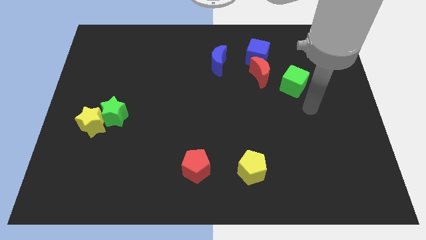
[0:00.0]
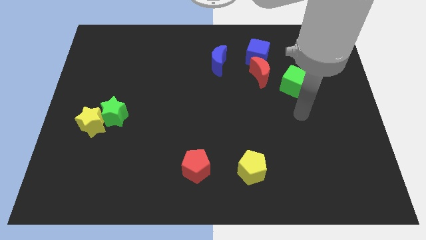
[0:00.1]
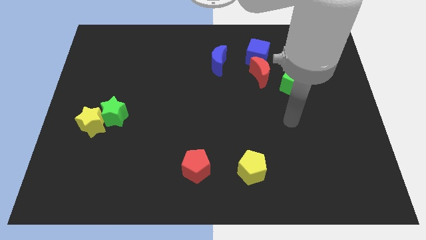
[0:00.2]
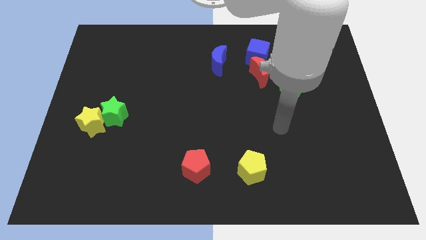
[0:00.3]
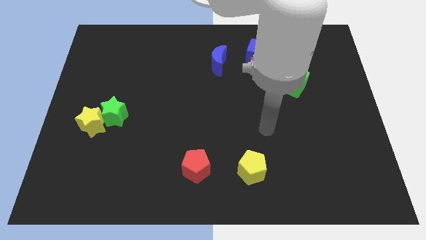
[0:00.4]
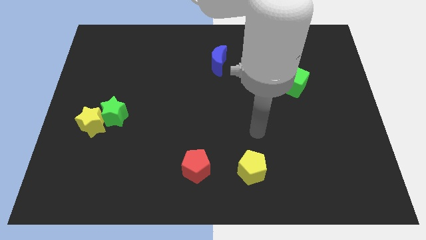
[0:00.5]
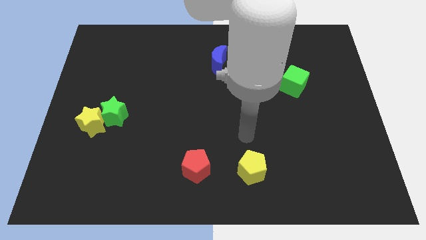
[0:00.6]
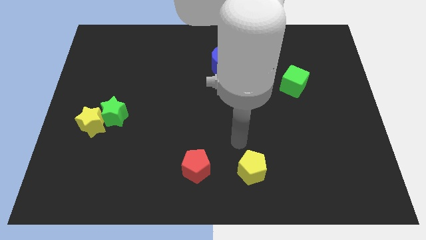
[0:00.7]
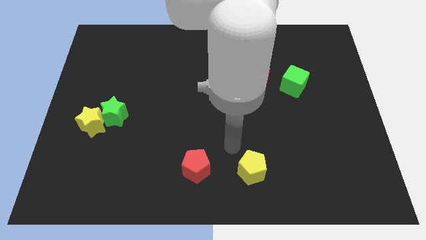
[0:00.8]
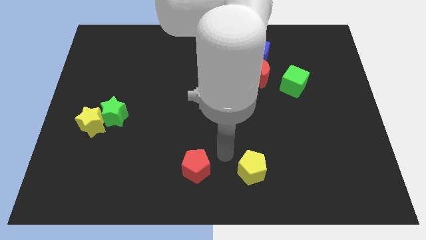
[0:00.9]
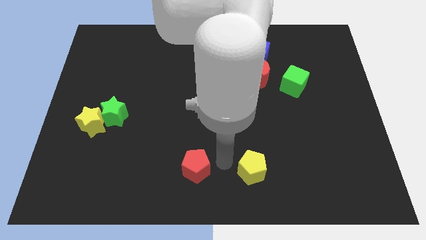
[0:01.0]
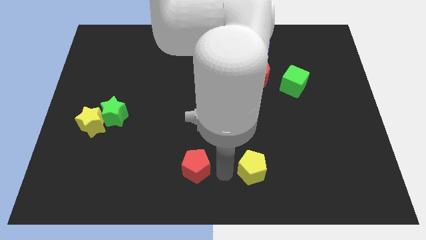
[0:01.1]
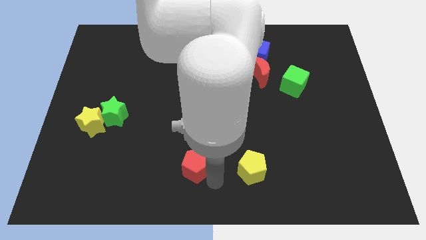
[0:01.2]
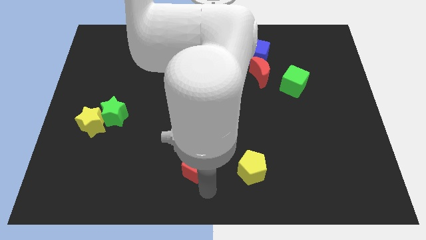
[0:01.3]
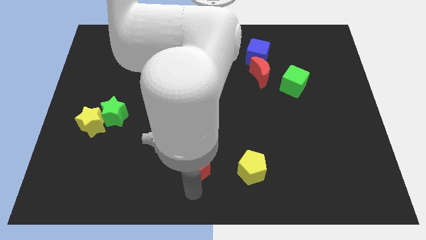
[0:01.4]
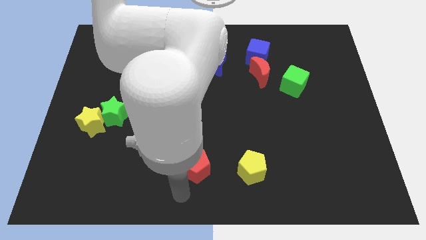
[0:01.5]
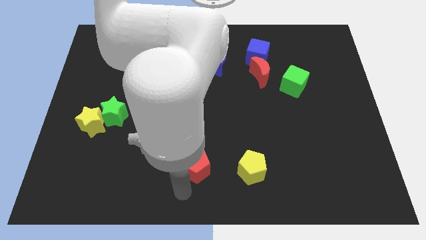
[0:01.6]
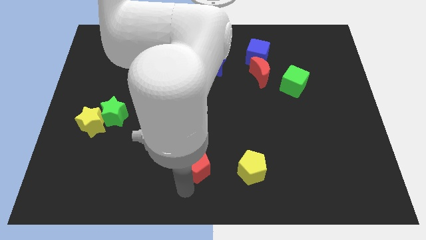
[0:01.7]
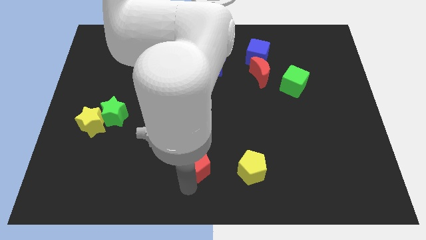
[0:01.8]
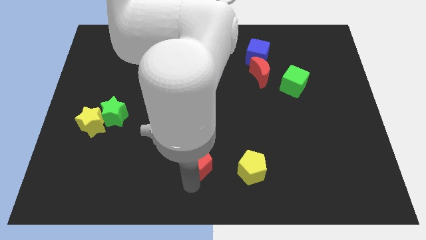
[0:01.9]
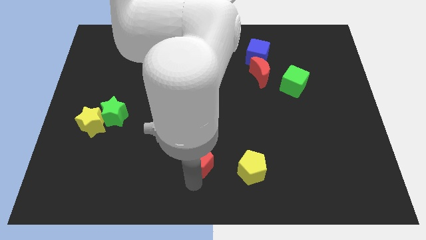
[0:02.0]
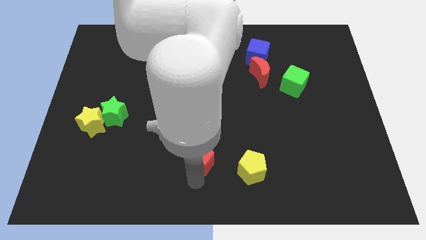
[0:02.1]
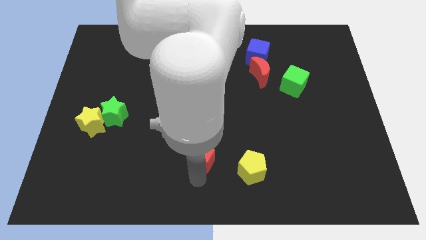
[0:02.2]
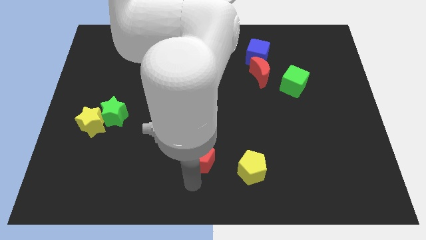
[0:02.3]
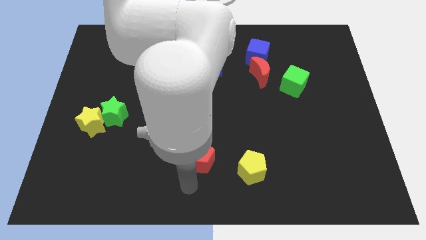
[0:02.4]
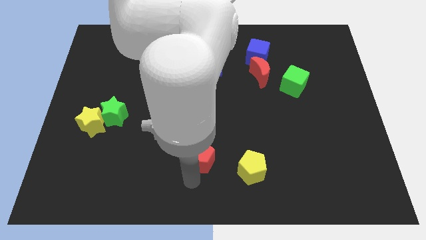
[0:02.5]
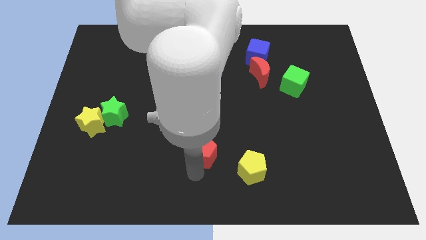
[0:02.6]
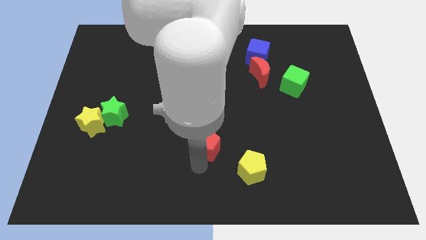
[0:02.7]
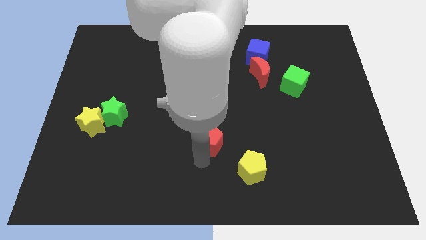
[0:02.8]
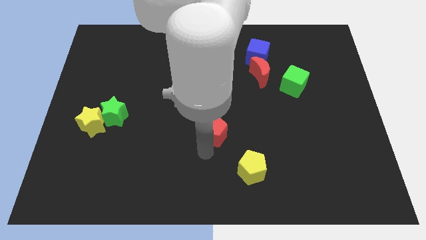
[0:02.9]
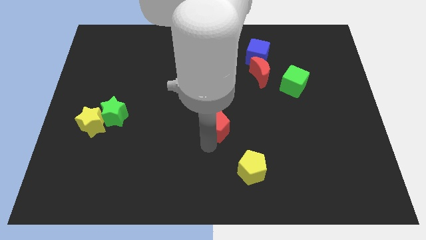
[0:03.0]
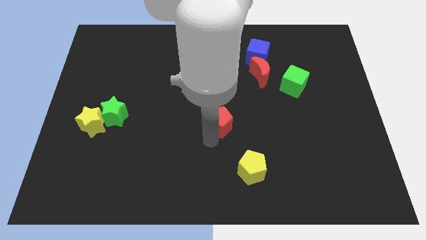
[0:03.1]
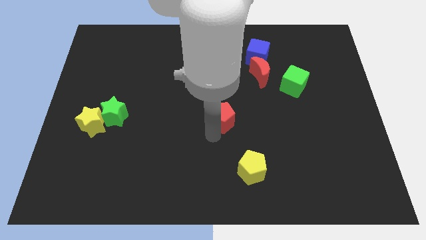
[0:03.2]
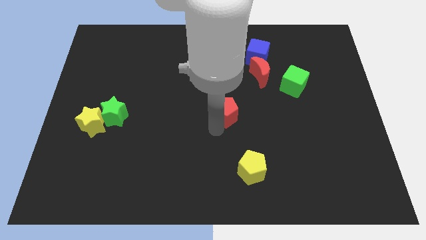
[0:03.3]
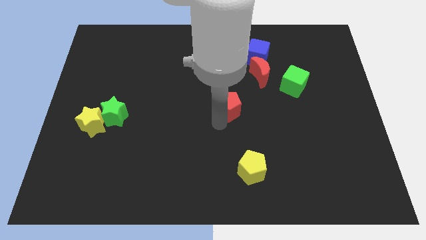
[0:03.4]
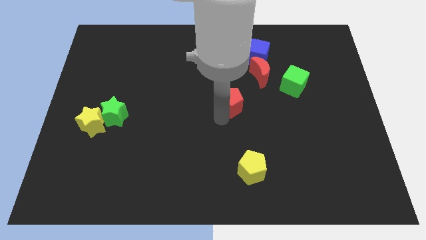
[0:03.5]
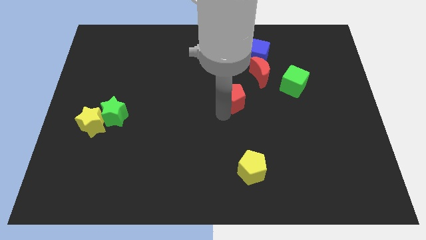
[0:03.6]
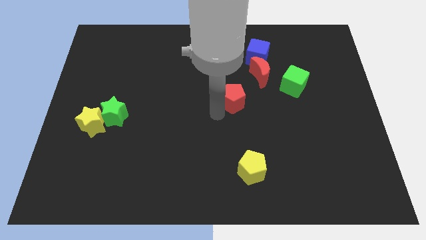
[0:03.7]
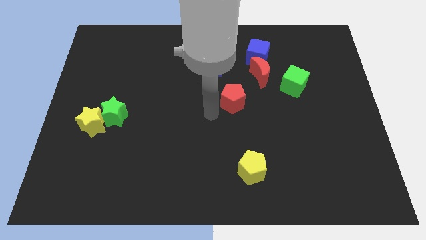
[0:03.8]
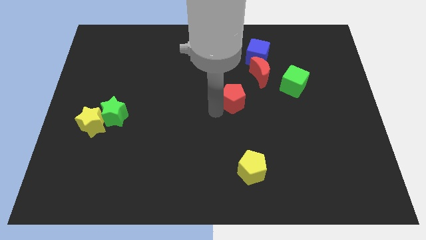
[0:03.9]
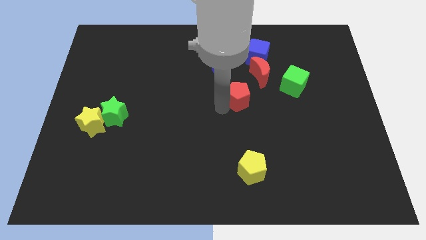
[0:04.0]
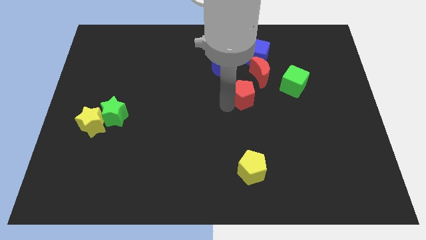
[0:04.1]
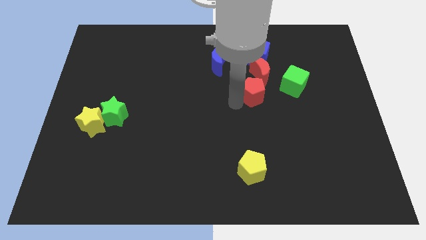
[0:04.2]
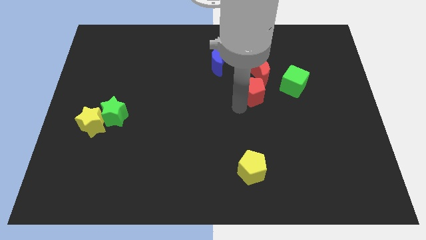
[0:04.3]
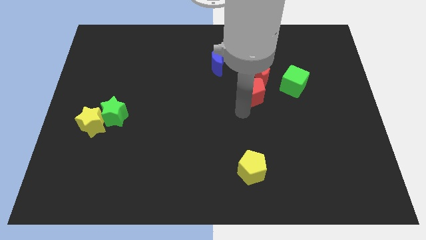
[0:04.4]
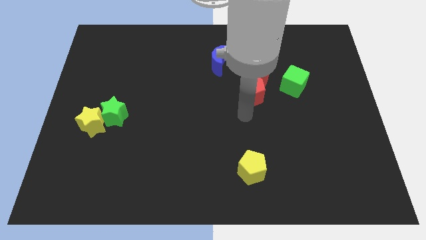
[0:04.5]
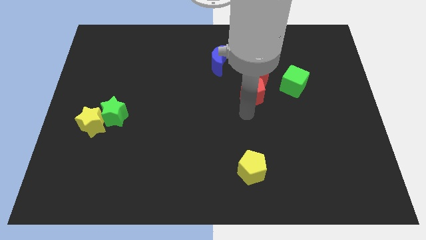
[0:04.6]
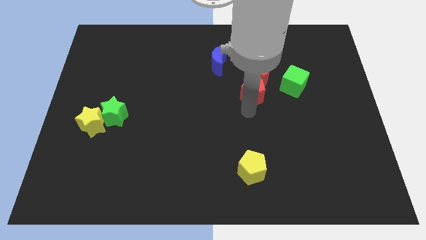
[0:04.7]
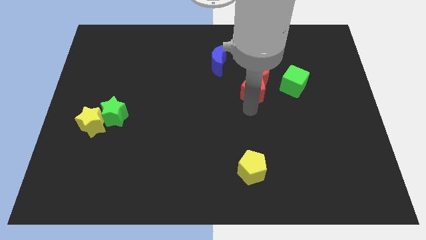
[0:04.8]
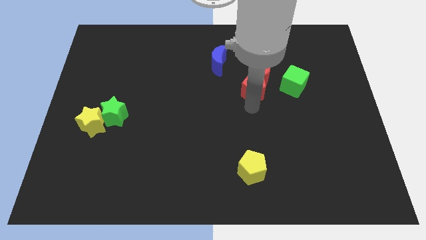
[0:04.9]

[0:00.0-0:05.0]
slide the red pentagon close to the red moon

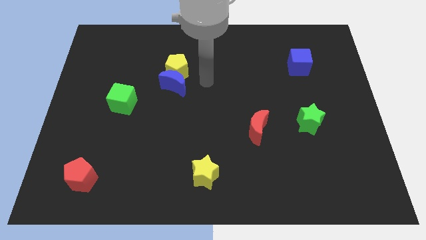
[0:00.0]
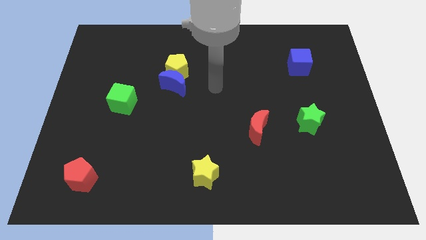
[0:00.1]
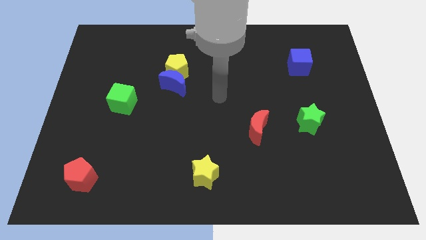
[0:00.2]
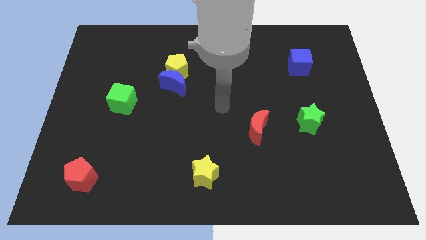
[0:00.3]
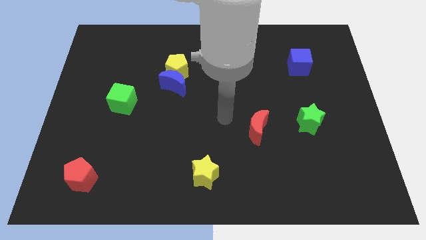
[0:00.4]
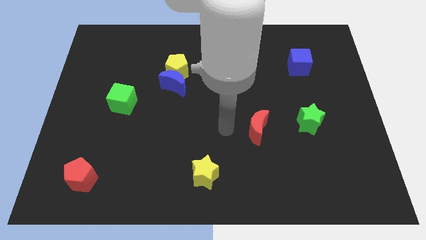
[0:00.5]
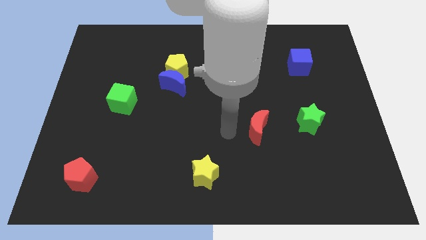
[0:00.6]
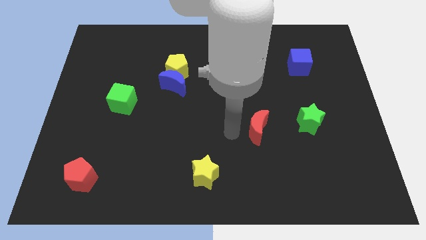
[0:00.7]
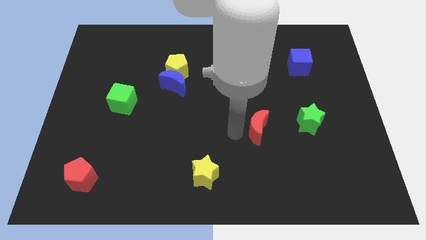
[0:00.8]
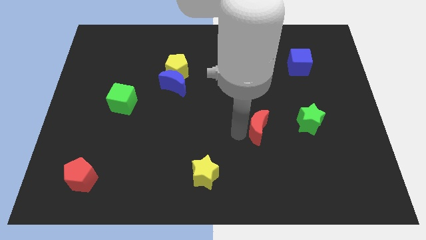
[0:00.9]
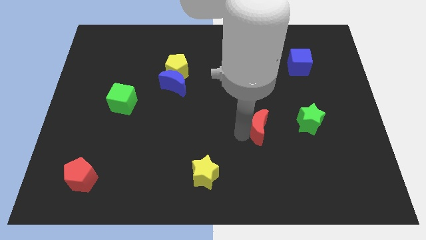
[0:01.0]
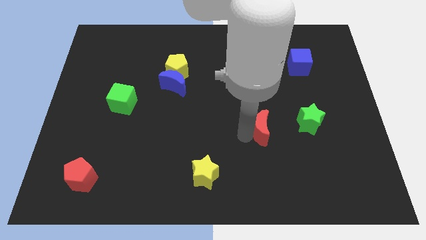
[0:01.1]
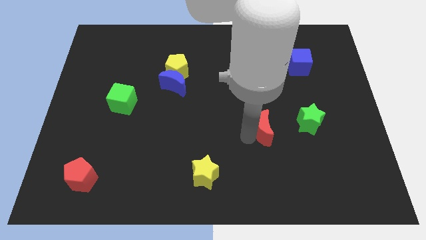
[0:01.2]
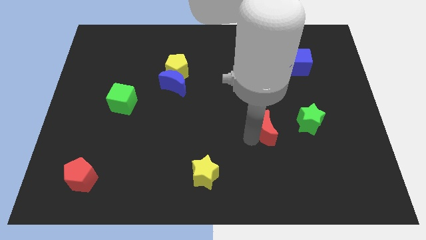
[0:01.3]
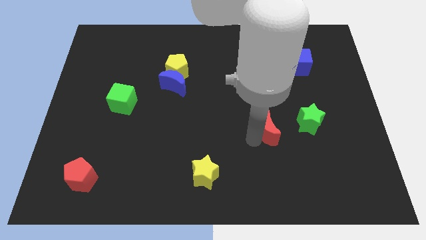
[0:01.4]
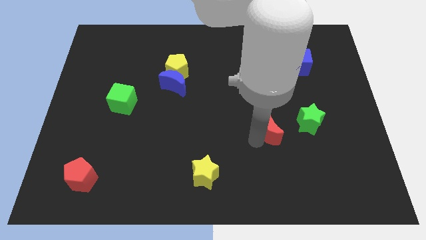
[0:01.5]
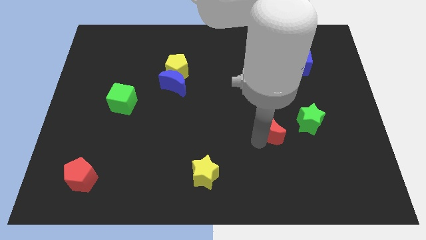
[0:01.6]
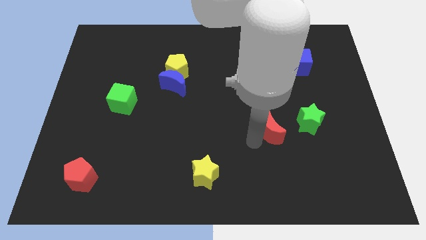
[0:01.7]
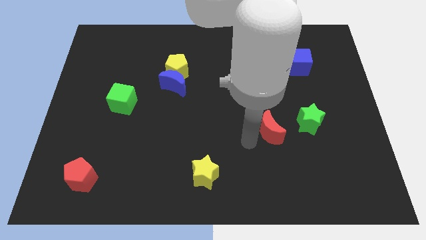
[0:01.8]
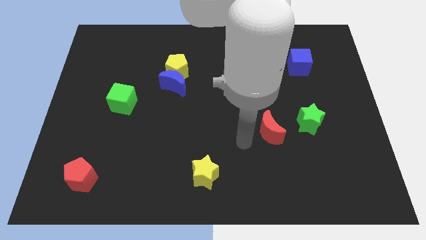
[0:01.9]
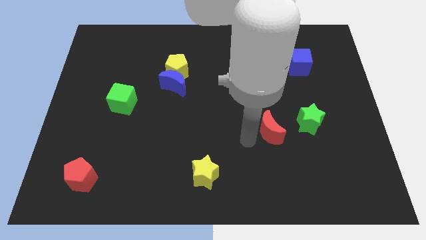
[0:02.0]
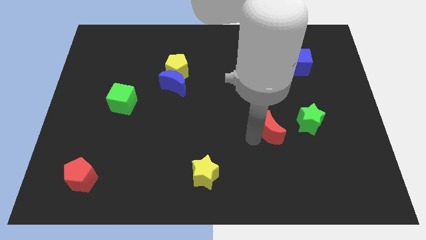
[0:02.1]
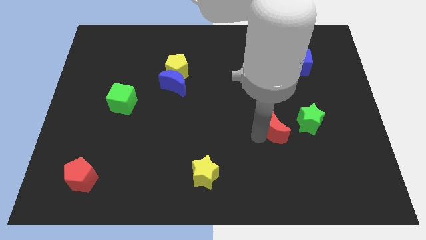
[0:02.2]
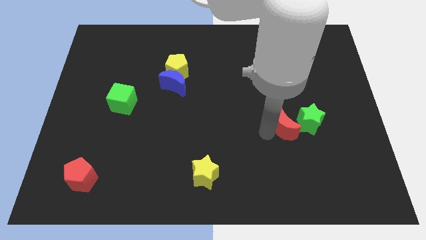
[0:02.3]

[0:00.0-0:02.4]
push the red moon next to the green star

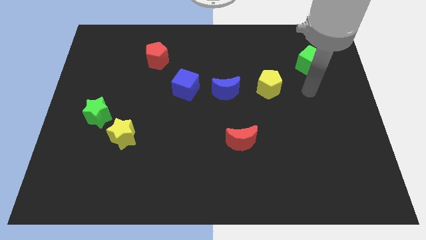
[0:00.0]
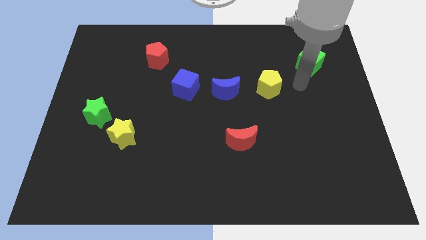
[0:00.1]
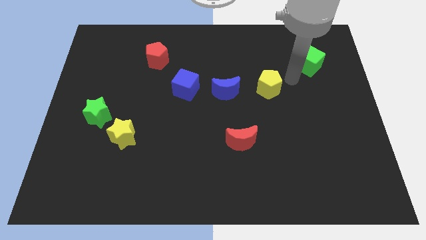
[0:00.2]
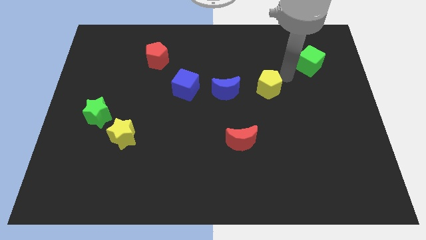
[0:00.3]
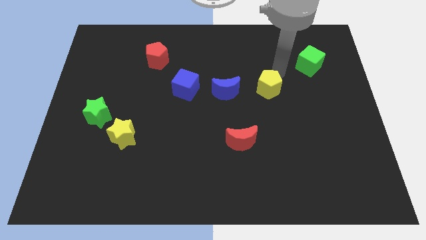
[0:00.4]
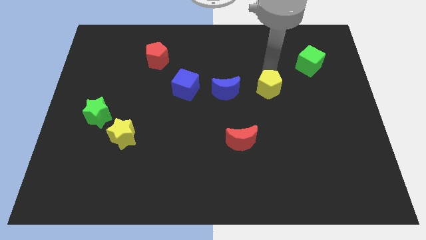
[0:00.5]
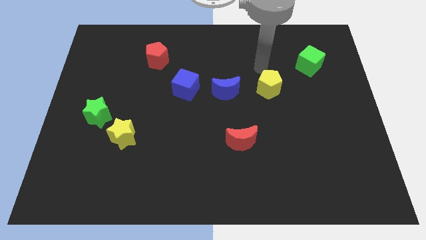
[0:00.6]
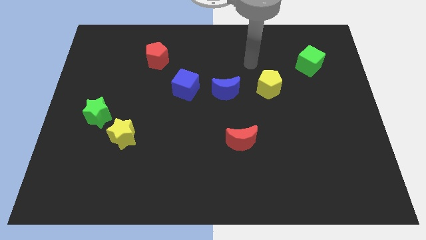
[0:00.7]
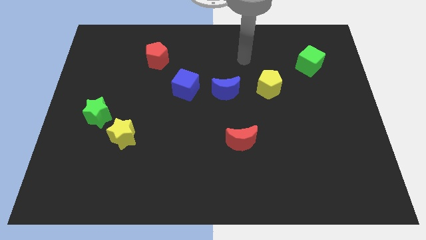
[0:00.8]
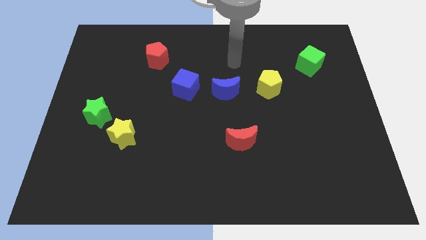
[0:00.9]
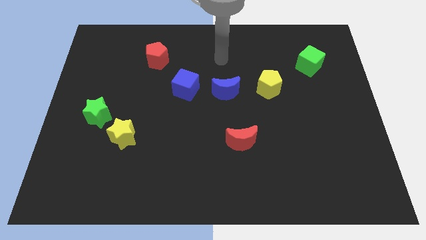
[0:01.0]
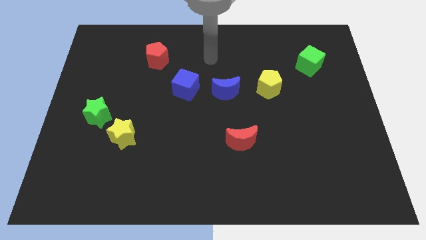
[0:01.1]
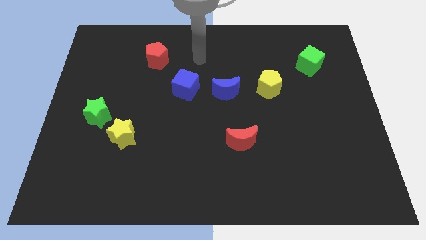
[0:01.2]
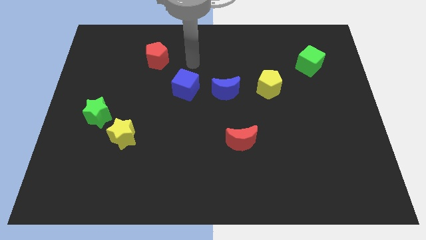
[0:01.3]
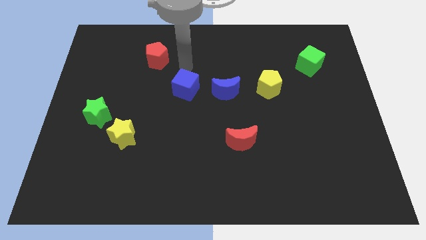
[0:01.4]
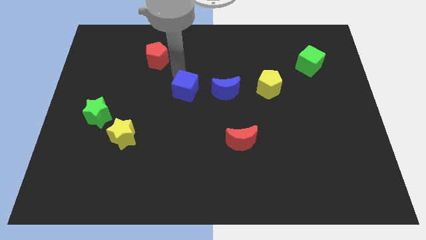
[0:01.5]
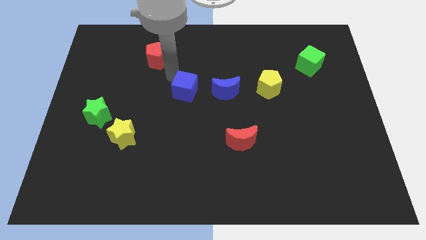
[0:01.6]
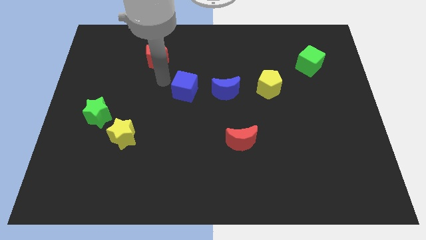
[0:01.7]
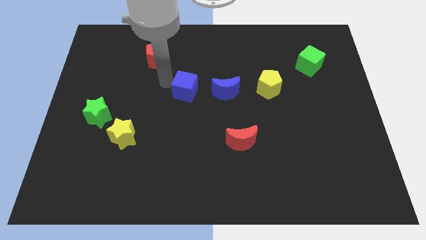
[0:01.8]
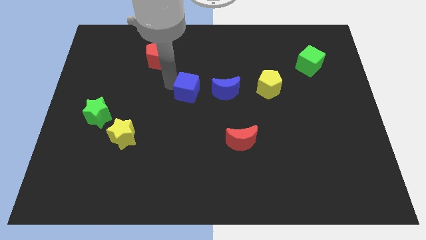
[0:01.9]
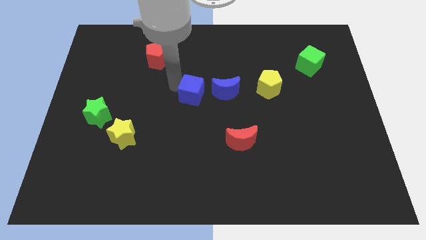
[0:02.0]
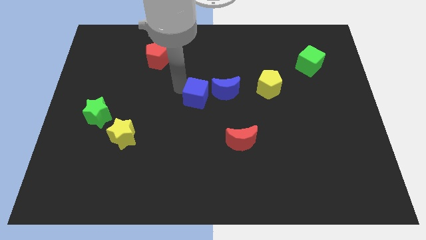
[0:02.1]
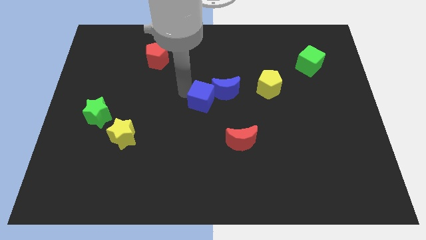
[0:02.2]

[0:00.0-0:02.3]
slide the blue cube close to the blue moon
